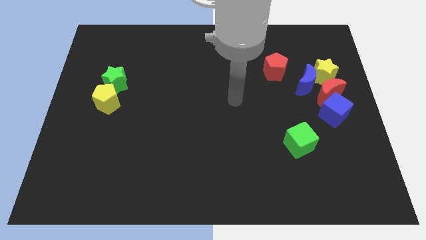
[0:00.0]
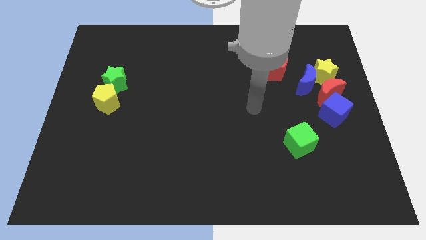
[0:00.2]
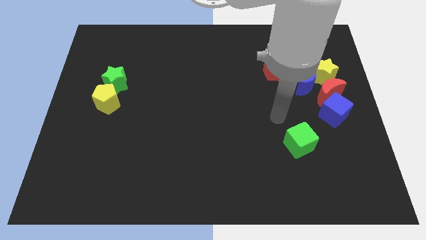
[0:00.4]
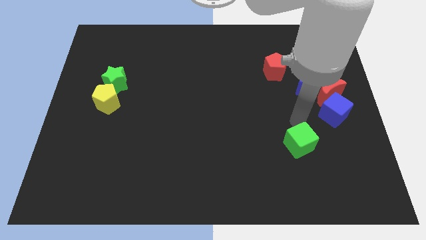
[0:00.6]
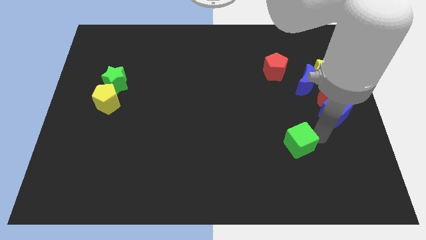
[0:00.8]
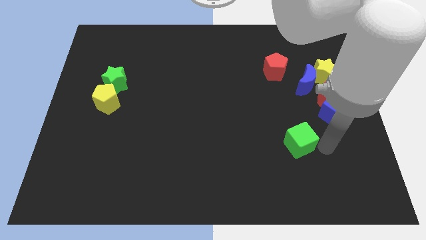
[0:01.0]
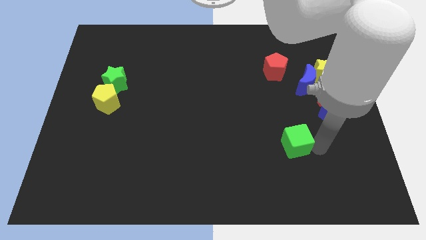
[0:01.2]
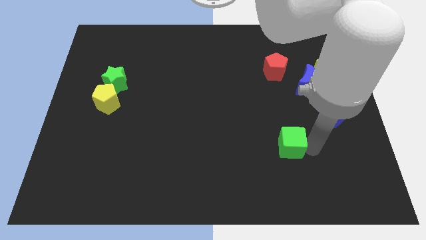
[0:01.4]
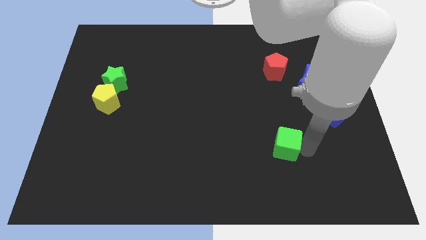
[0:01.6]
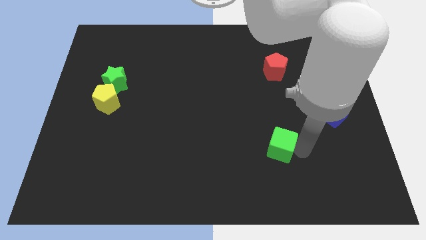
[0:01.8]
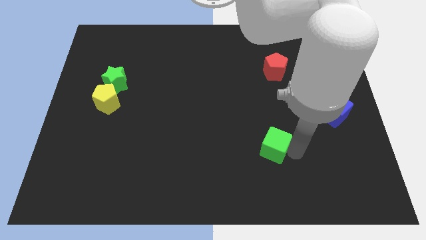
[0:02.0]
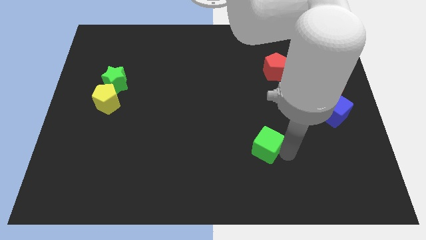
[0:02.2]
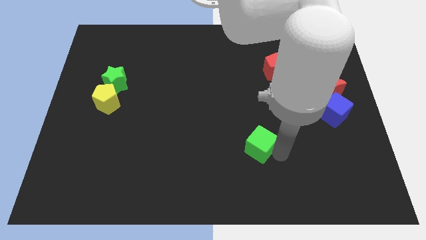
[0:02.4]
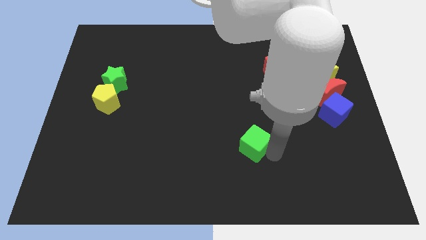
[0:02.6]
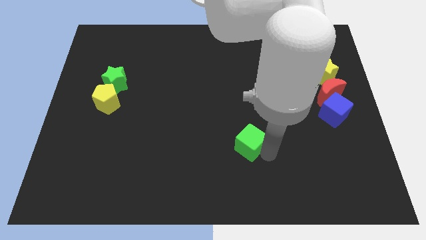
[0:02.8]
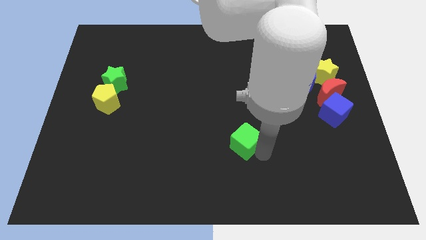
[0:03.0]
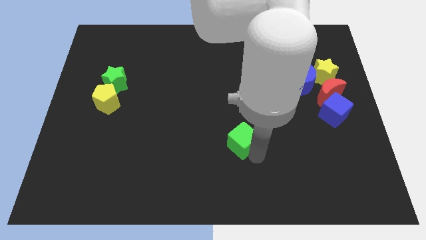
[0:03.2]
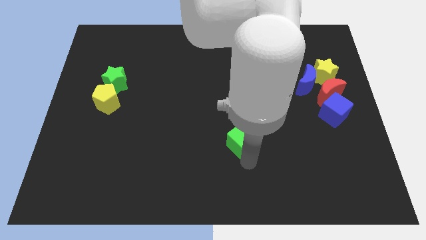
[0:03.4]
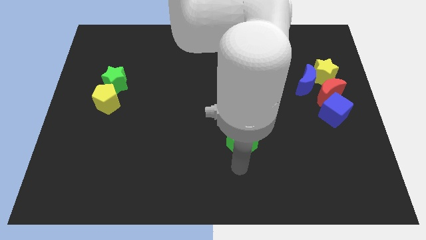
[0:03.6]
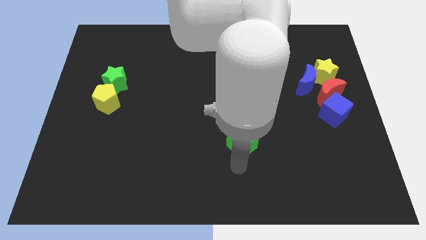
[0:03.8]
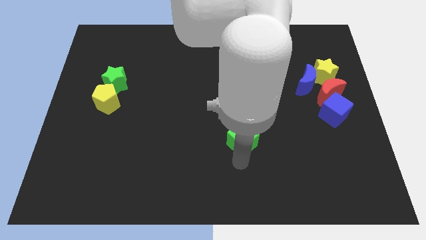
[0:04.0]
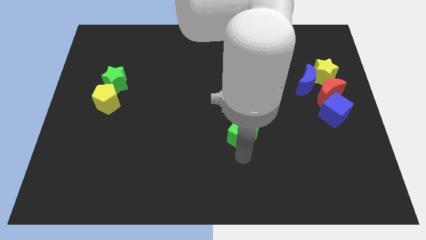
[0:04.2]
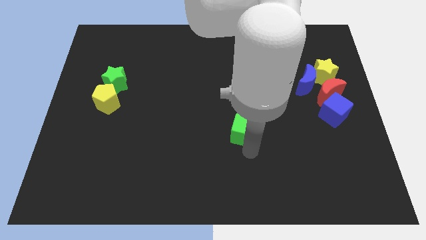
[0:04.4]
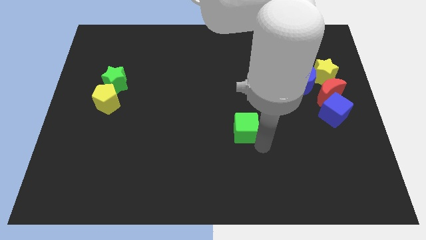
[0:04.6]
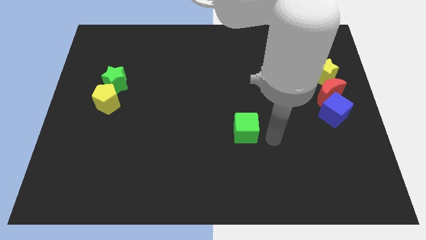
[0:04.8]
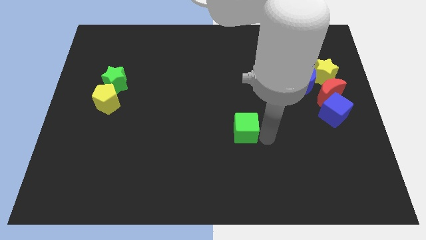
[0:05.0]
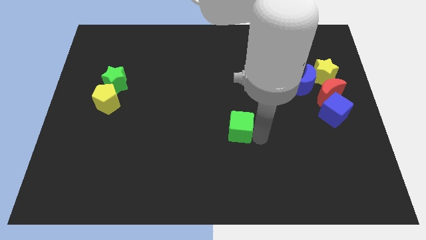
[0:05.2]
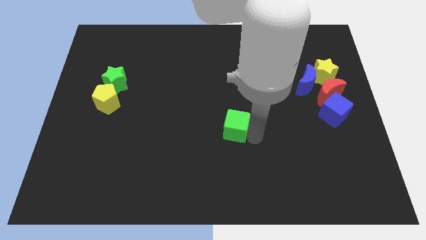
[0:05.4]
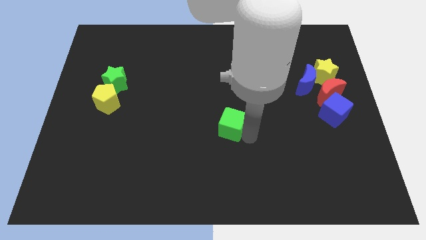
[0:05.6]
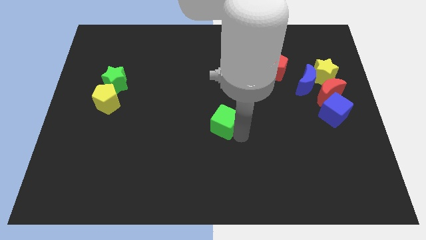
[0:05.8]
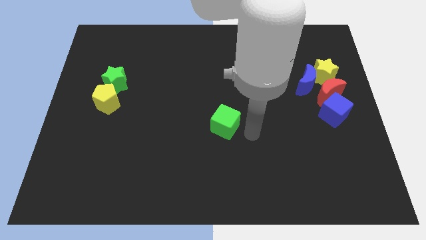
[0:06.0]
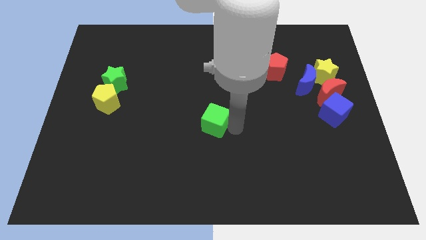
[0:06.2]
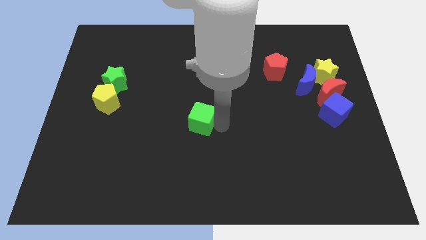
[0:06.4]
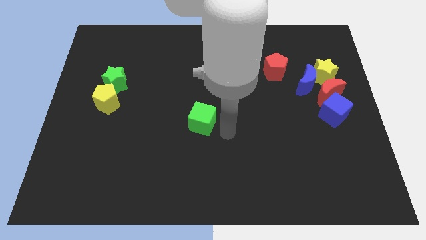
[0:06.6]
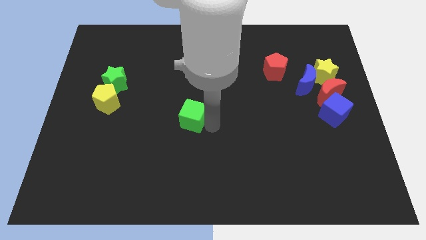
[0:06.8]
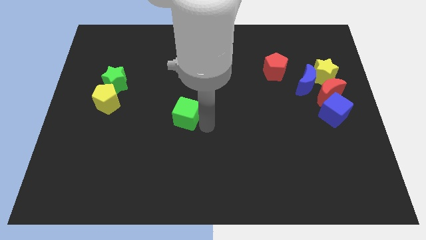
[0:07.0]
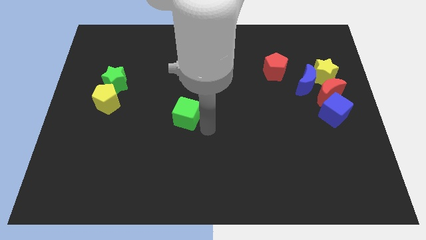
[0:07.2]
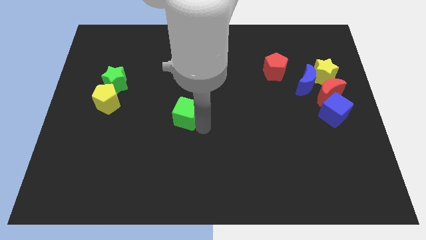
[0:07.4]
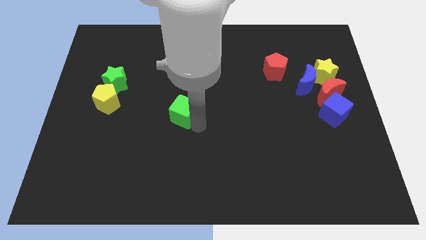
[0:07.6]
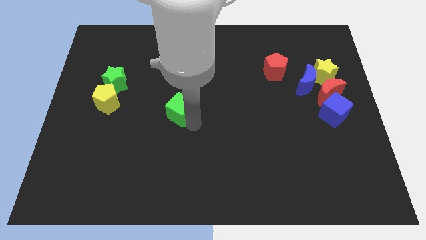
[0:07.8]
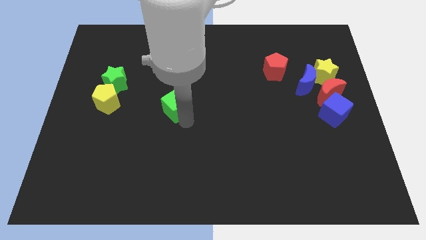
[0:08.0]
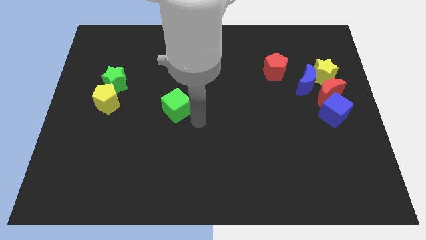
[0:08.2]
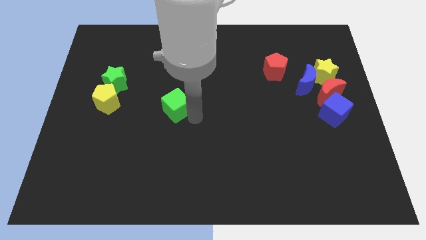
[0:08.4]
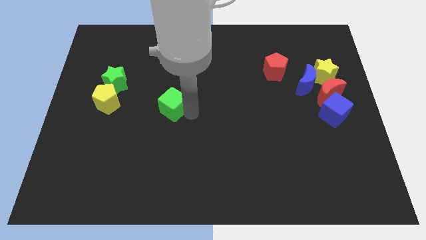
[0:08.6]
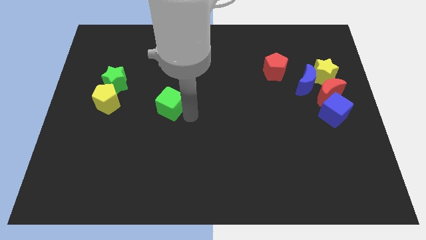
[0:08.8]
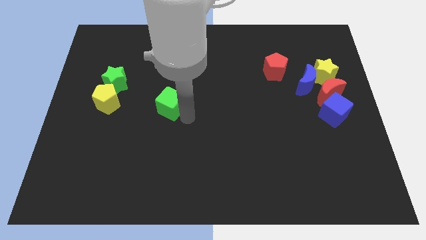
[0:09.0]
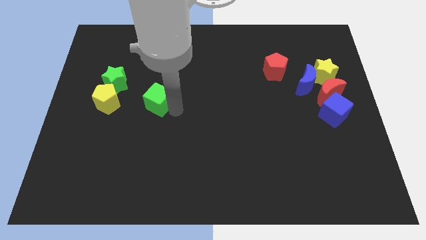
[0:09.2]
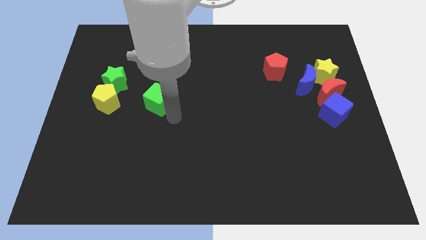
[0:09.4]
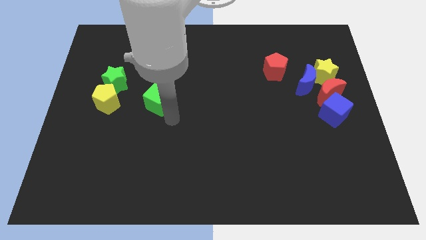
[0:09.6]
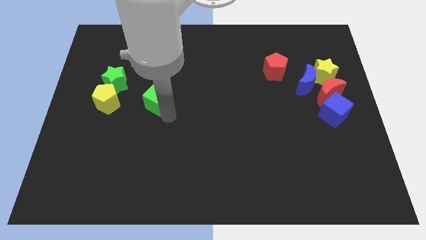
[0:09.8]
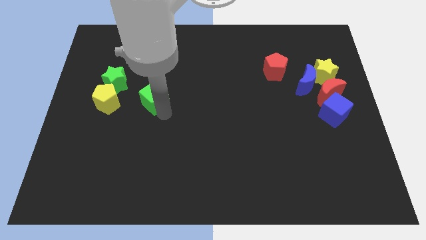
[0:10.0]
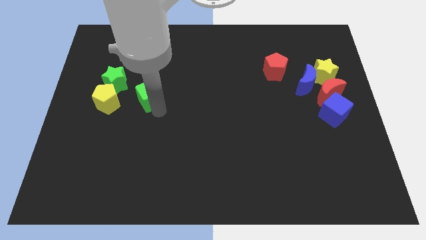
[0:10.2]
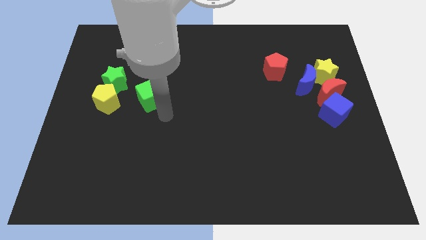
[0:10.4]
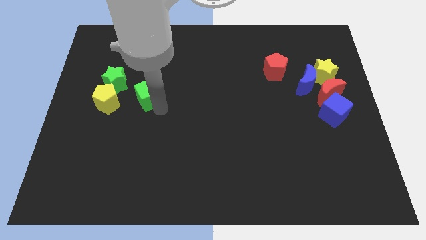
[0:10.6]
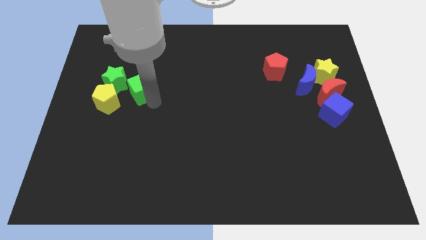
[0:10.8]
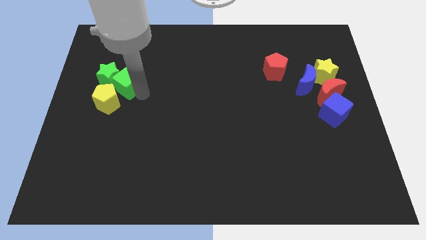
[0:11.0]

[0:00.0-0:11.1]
slide the green cube to the top side of the yellow pentagon

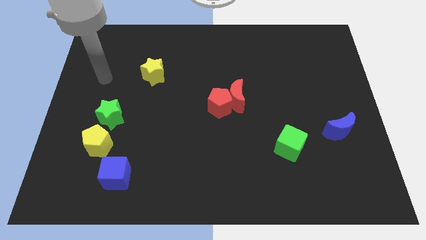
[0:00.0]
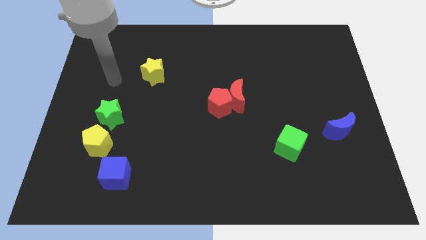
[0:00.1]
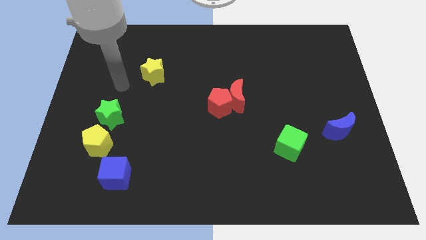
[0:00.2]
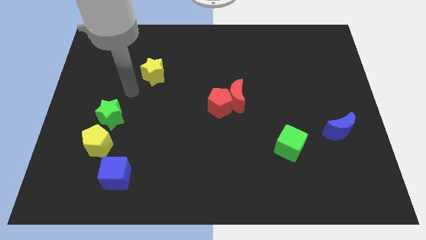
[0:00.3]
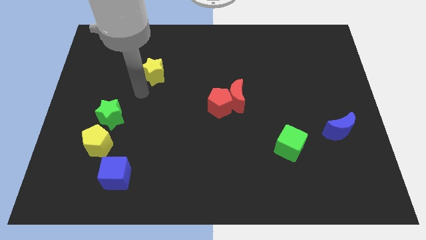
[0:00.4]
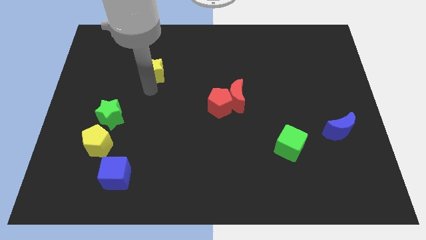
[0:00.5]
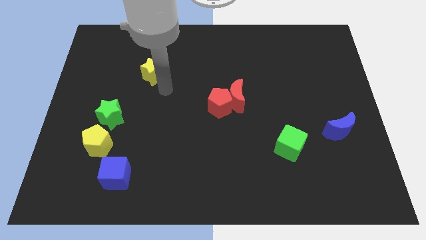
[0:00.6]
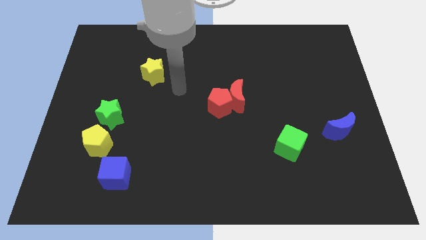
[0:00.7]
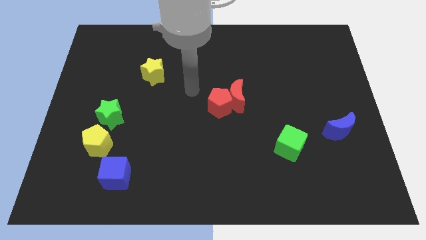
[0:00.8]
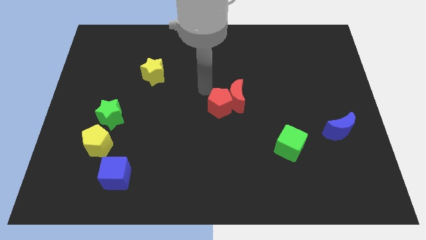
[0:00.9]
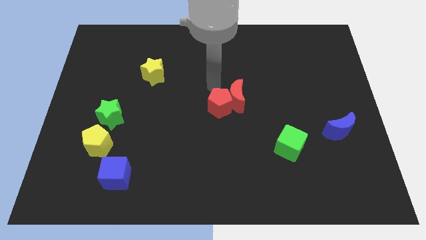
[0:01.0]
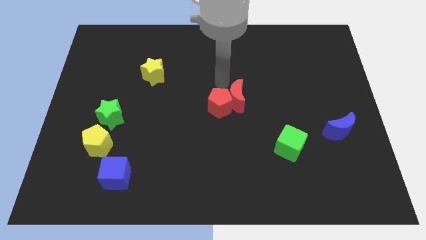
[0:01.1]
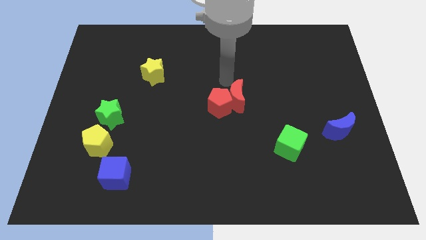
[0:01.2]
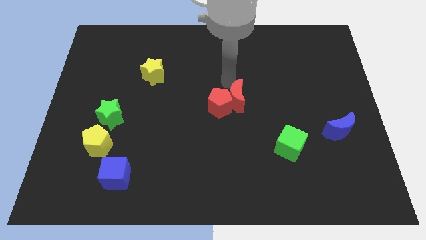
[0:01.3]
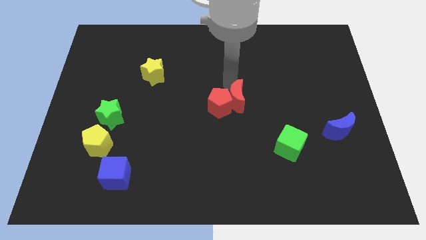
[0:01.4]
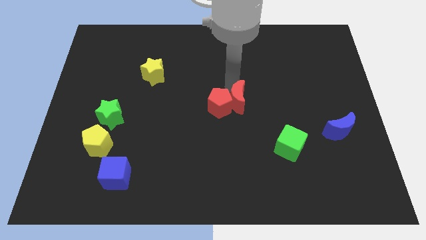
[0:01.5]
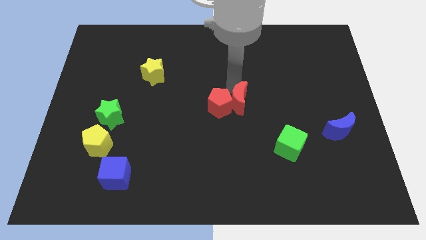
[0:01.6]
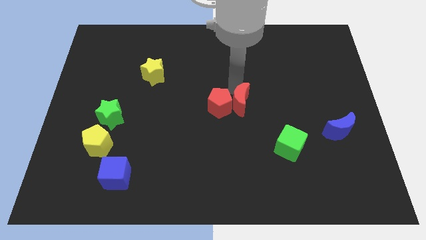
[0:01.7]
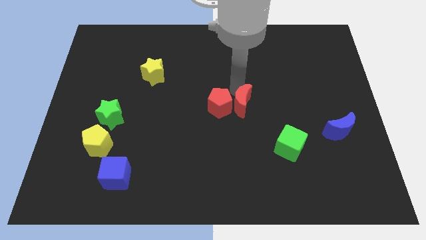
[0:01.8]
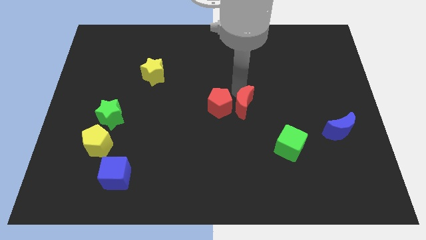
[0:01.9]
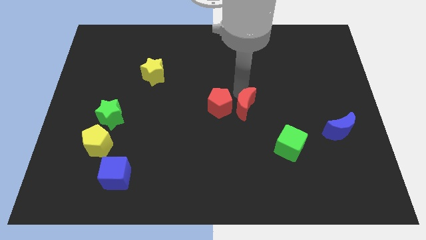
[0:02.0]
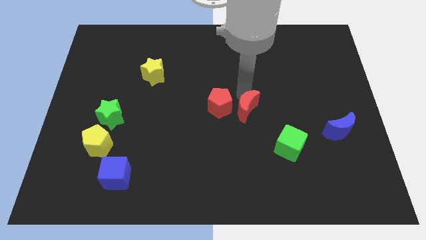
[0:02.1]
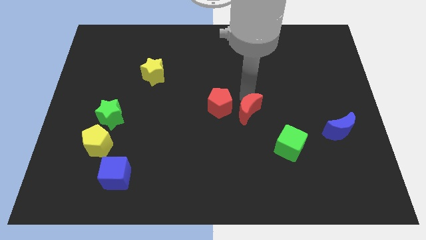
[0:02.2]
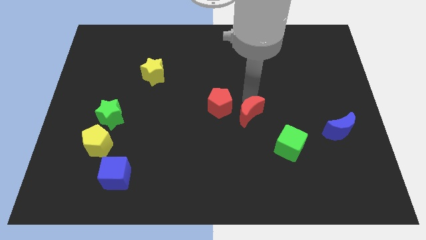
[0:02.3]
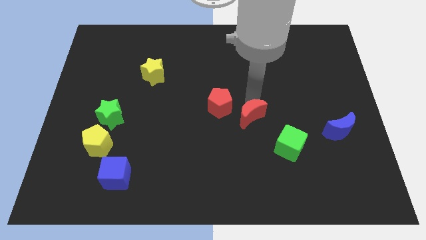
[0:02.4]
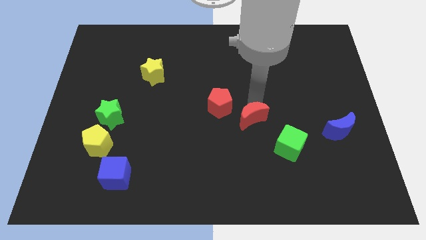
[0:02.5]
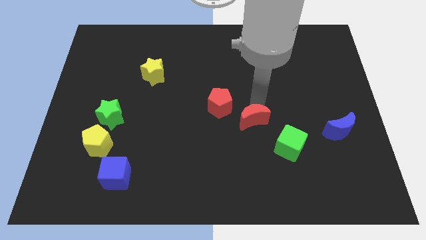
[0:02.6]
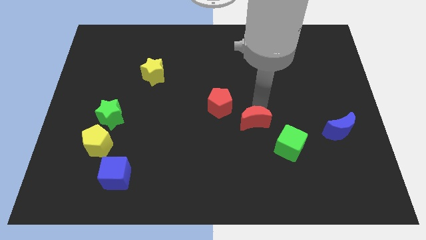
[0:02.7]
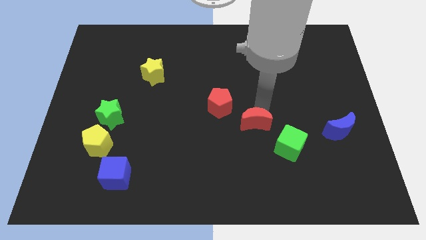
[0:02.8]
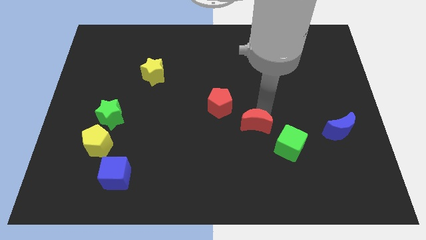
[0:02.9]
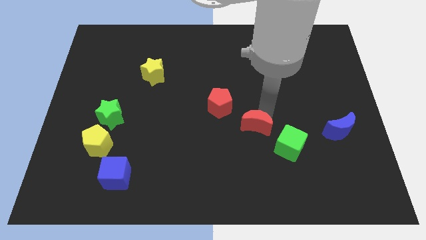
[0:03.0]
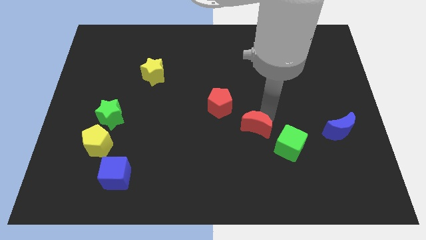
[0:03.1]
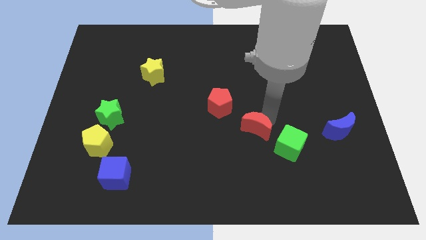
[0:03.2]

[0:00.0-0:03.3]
push the red moon to the left of the green cube
